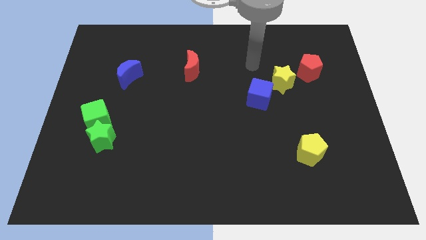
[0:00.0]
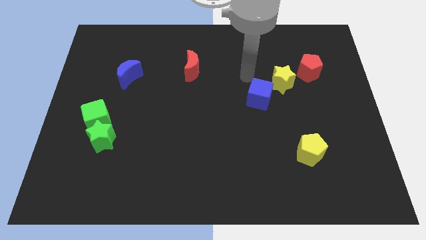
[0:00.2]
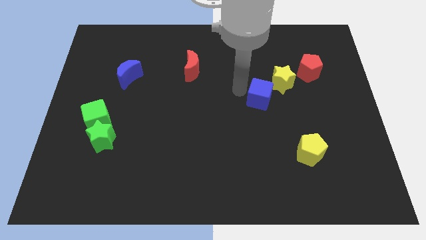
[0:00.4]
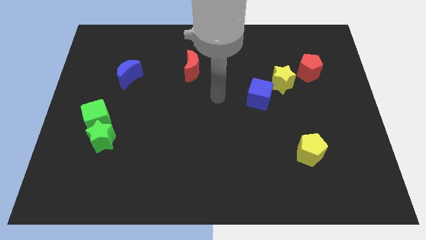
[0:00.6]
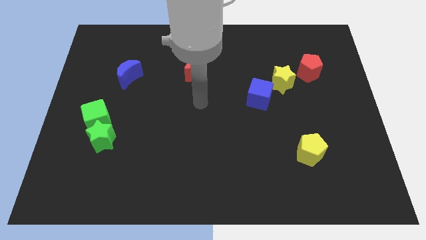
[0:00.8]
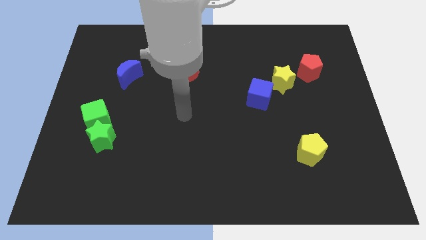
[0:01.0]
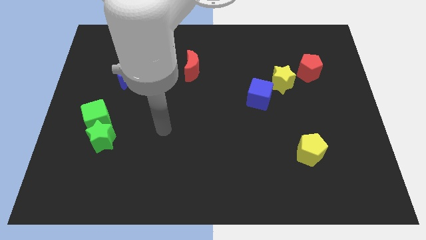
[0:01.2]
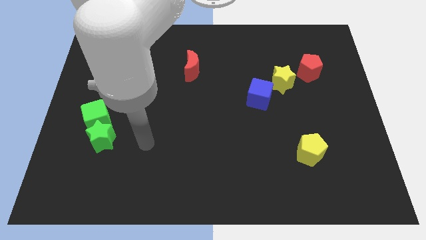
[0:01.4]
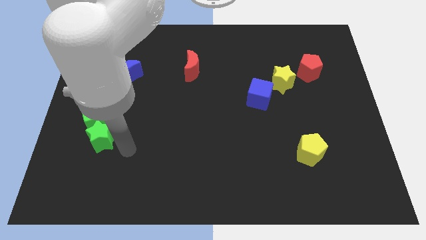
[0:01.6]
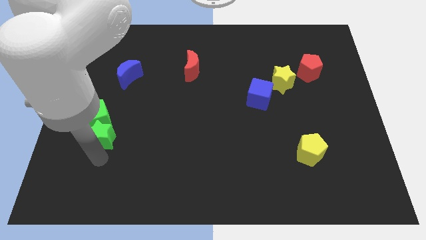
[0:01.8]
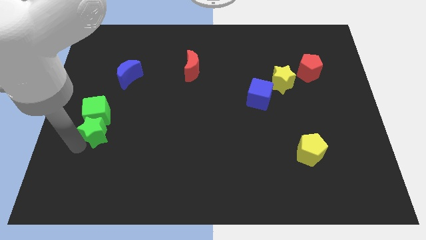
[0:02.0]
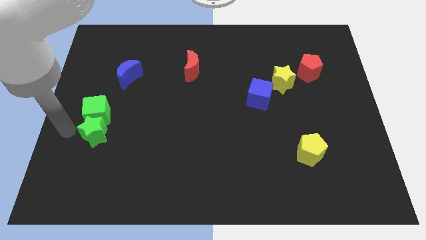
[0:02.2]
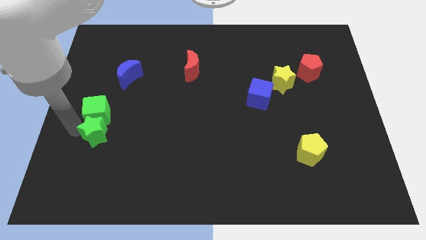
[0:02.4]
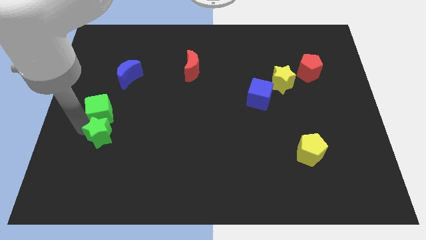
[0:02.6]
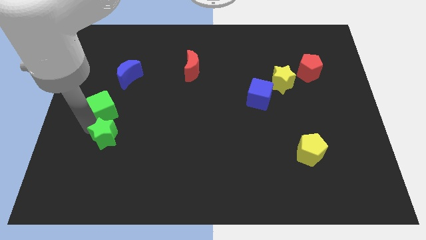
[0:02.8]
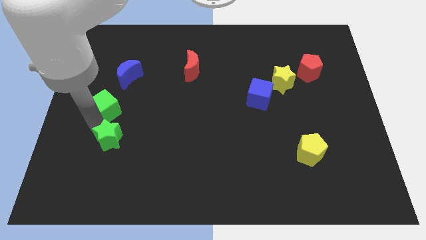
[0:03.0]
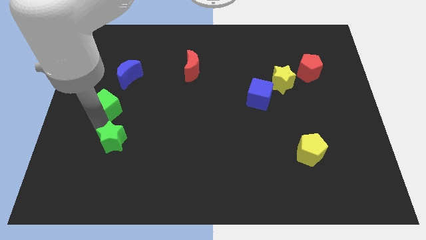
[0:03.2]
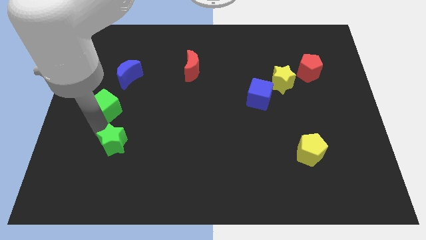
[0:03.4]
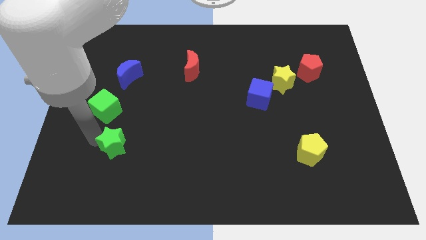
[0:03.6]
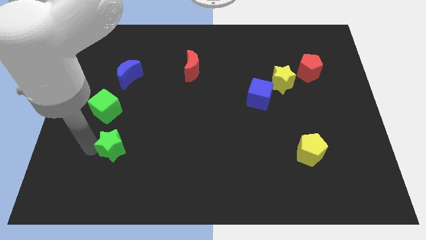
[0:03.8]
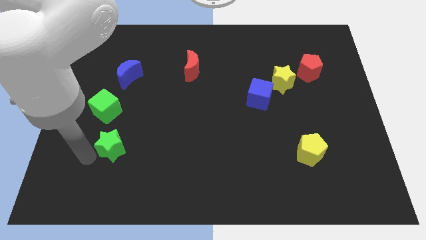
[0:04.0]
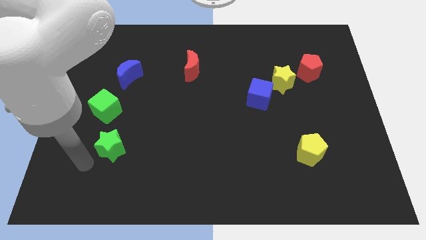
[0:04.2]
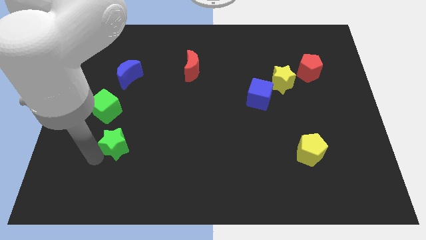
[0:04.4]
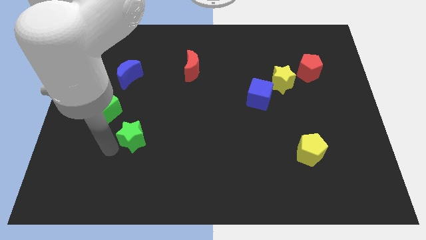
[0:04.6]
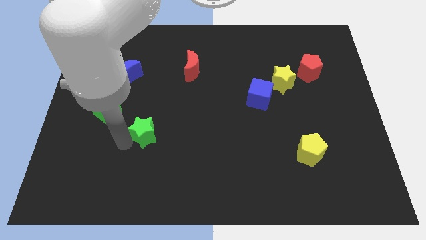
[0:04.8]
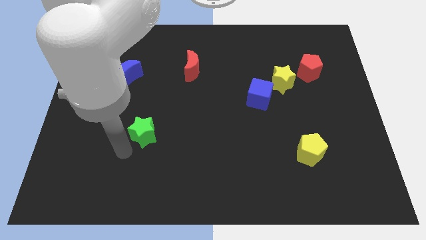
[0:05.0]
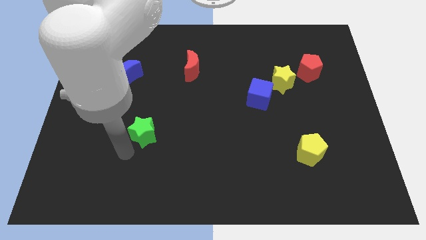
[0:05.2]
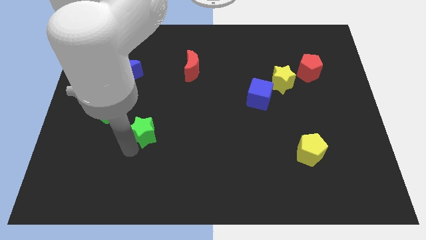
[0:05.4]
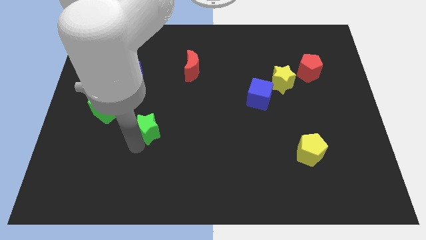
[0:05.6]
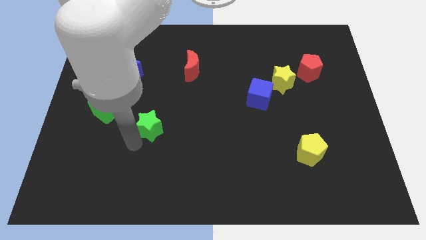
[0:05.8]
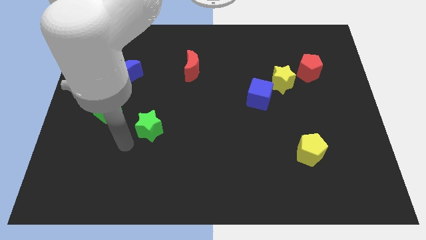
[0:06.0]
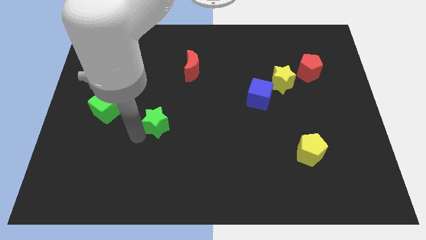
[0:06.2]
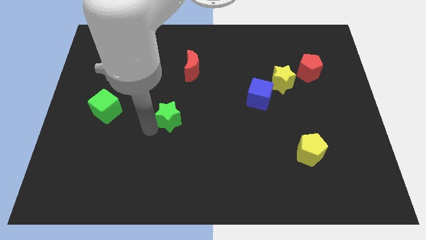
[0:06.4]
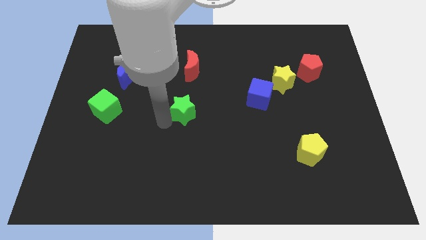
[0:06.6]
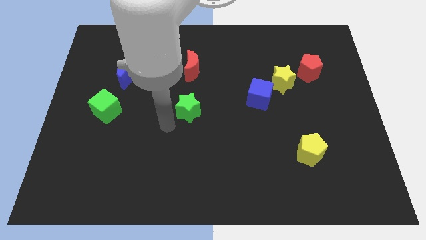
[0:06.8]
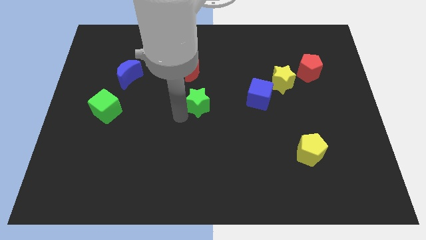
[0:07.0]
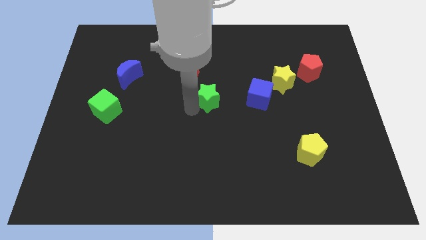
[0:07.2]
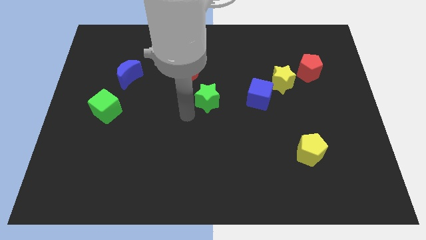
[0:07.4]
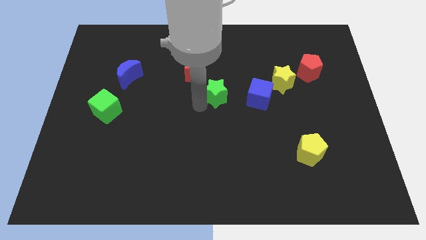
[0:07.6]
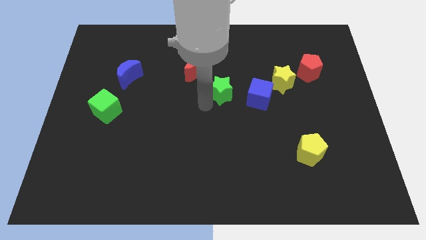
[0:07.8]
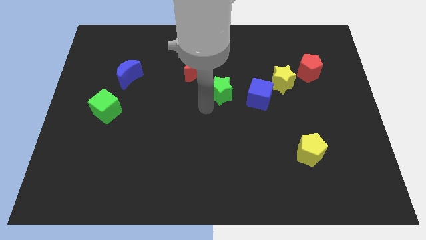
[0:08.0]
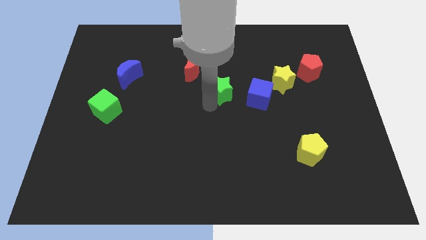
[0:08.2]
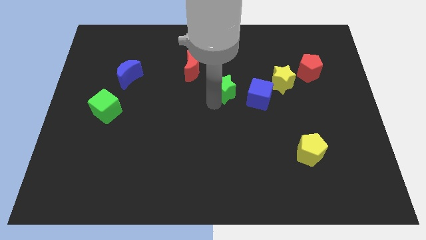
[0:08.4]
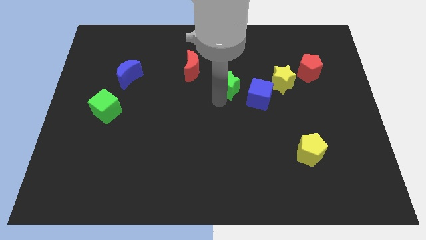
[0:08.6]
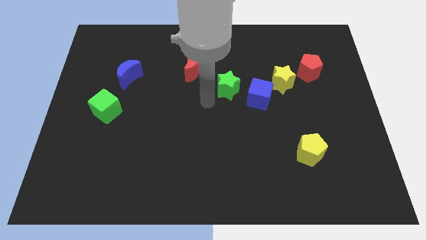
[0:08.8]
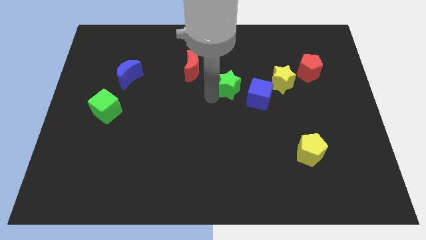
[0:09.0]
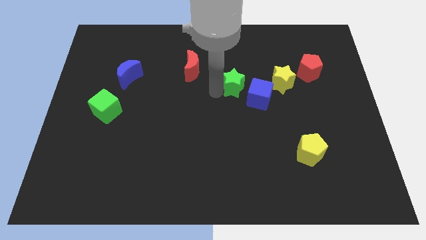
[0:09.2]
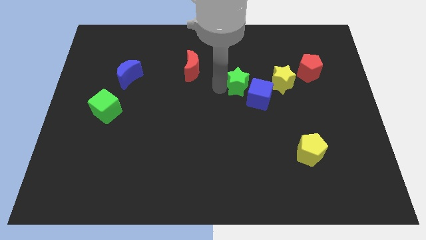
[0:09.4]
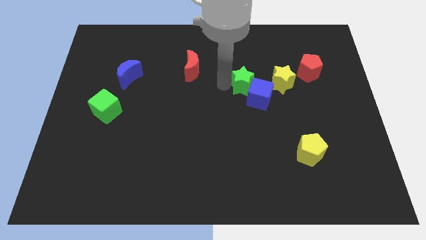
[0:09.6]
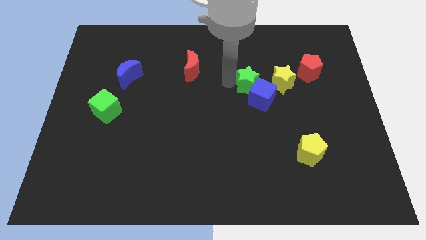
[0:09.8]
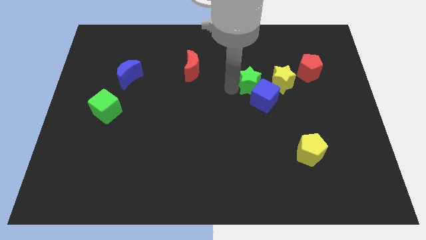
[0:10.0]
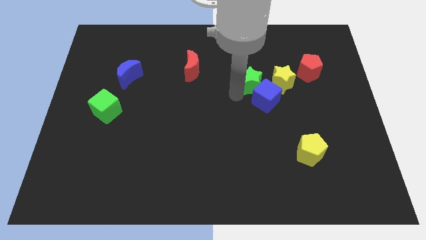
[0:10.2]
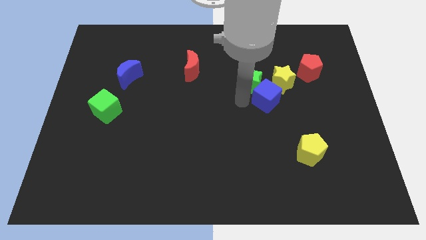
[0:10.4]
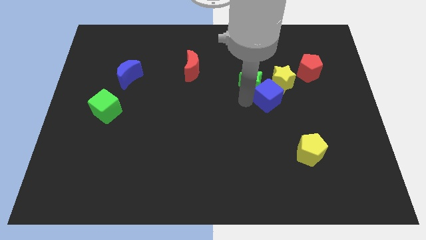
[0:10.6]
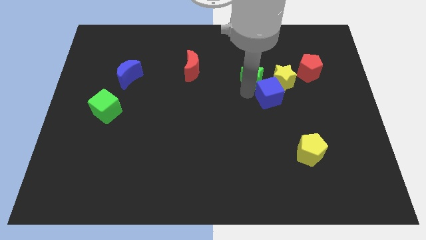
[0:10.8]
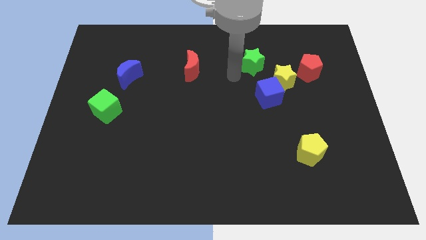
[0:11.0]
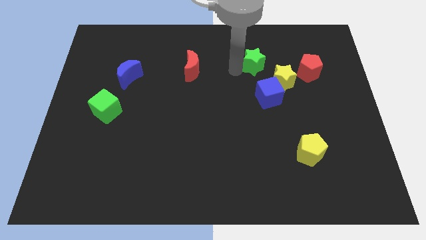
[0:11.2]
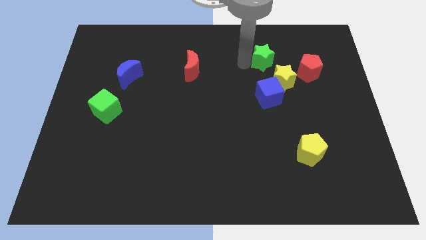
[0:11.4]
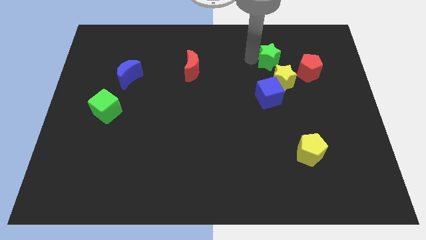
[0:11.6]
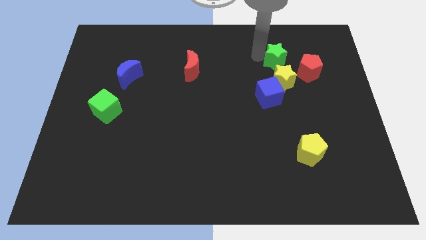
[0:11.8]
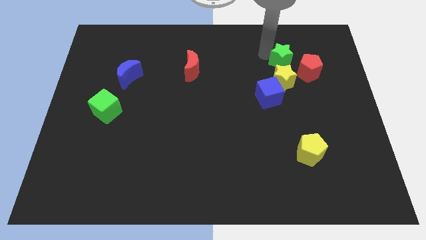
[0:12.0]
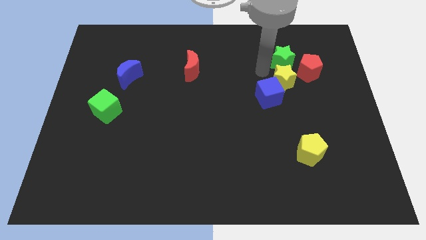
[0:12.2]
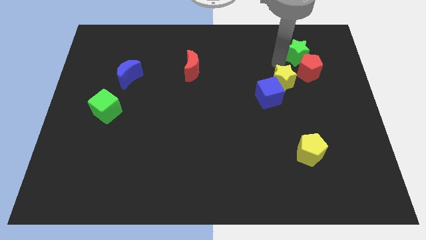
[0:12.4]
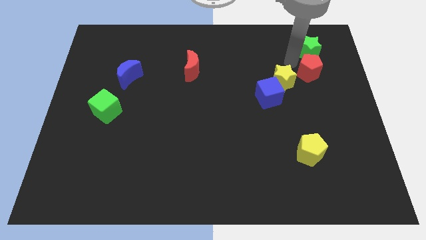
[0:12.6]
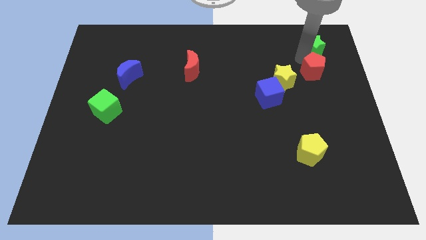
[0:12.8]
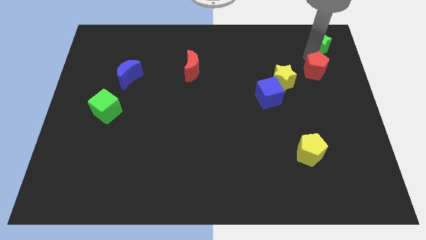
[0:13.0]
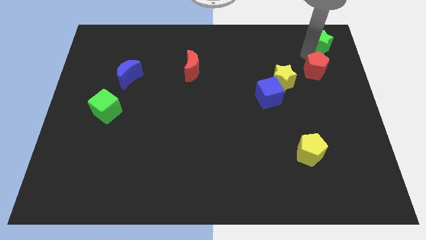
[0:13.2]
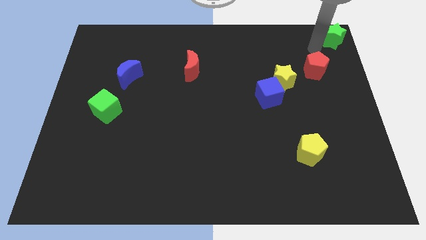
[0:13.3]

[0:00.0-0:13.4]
slide the green star to the upper right corner

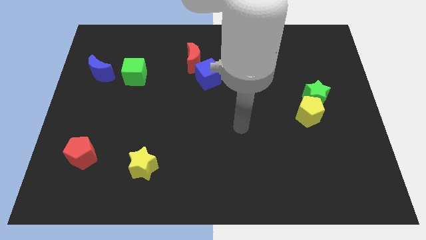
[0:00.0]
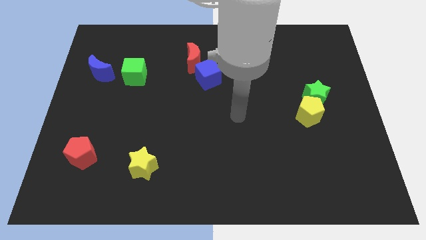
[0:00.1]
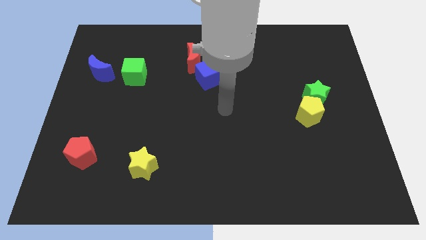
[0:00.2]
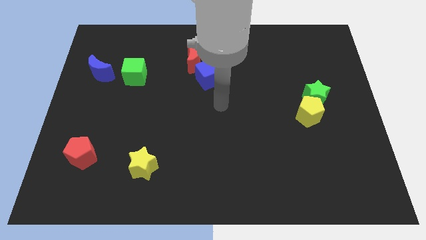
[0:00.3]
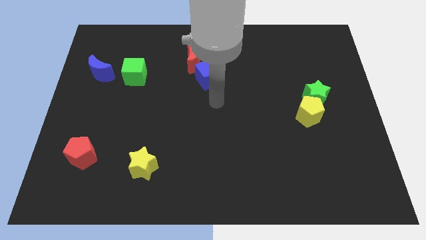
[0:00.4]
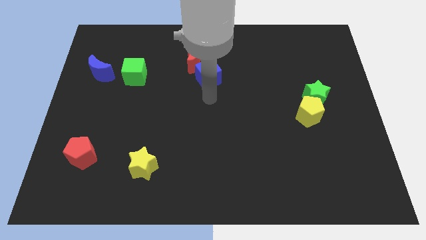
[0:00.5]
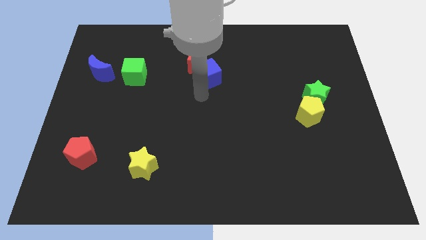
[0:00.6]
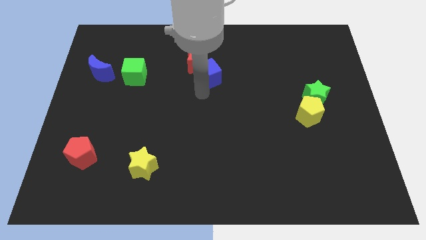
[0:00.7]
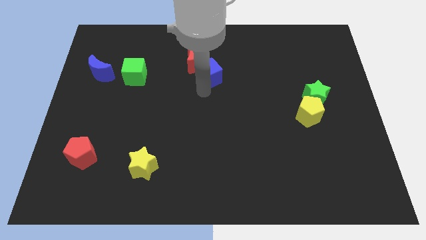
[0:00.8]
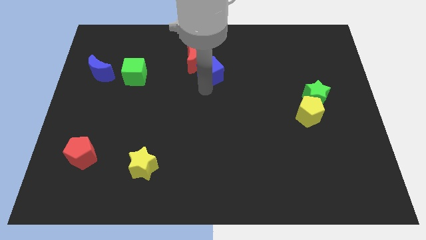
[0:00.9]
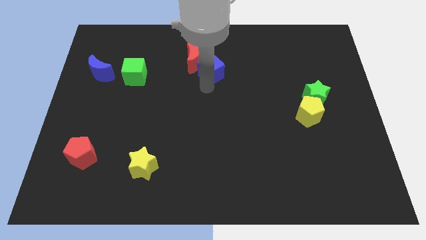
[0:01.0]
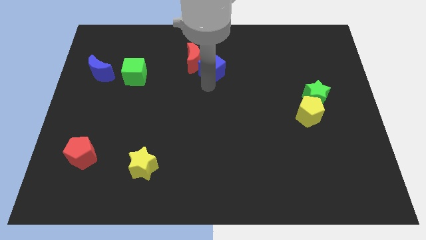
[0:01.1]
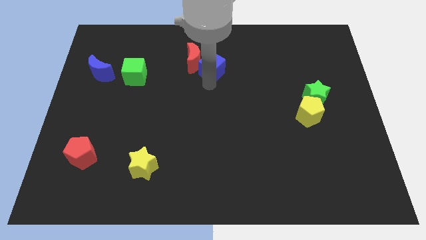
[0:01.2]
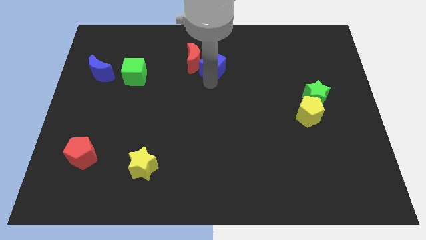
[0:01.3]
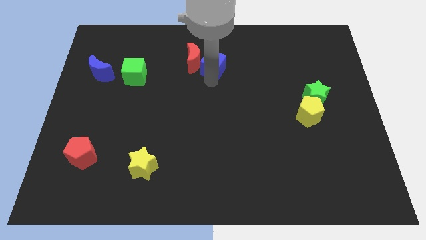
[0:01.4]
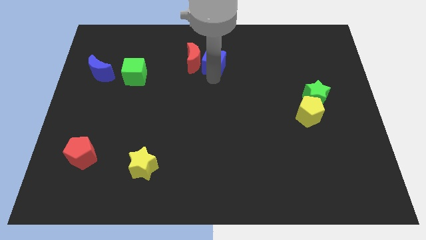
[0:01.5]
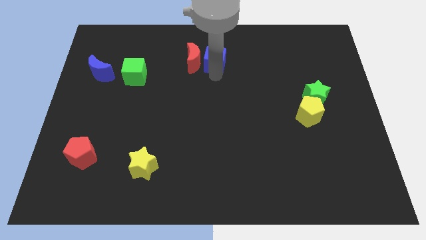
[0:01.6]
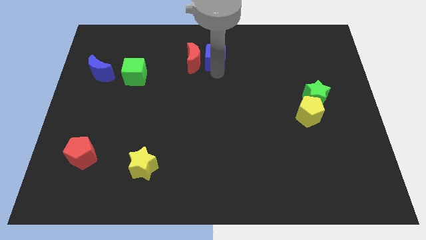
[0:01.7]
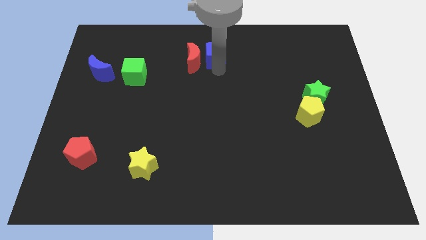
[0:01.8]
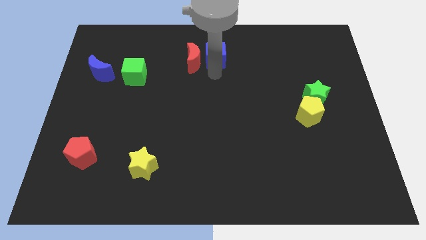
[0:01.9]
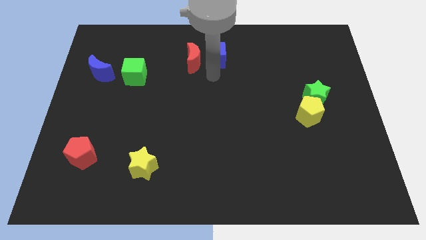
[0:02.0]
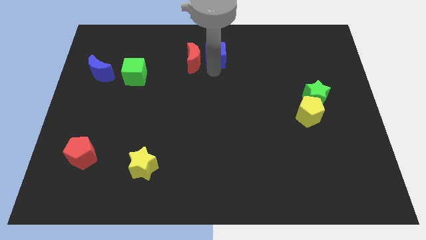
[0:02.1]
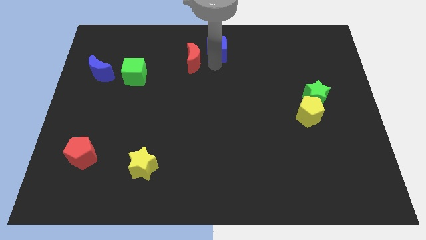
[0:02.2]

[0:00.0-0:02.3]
slide the blue cube to the top side
